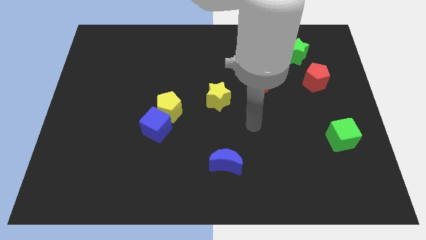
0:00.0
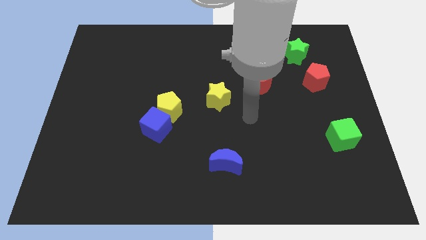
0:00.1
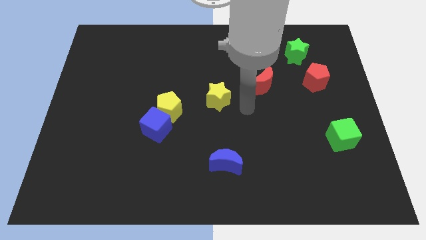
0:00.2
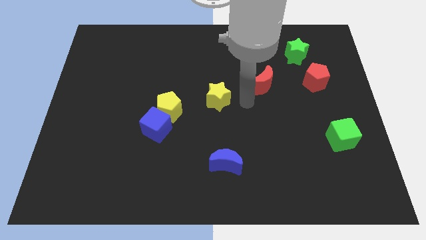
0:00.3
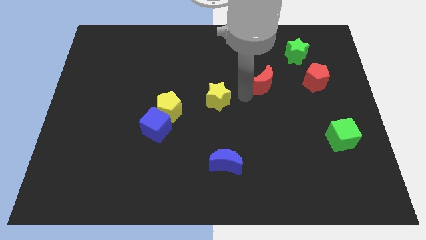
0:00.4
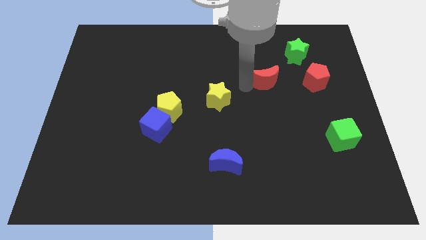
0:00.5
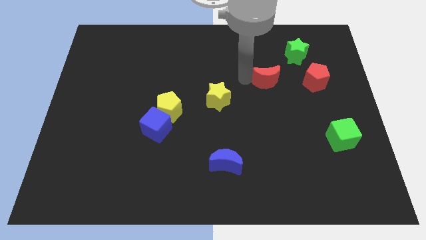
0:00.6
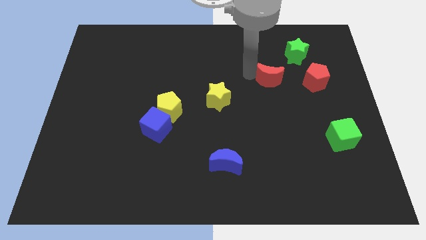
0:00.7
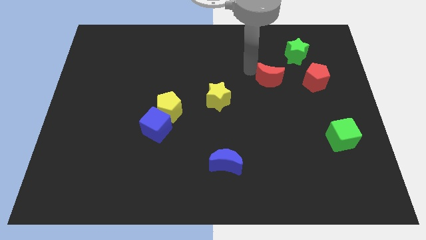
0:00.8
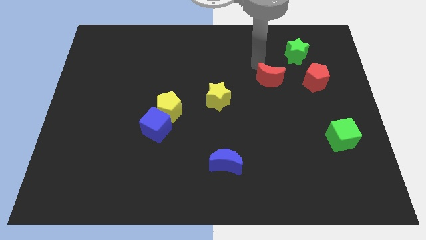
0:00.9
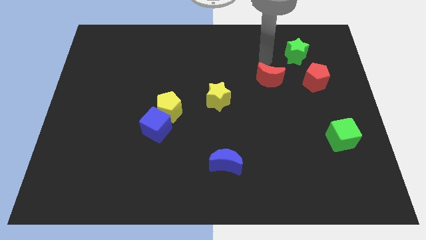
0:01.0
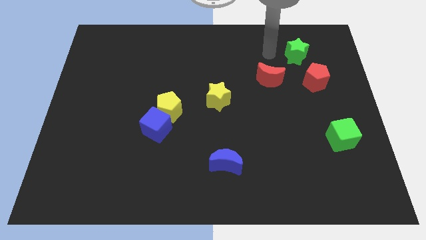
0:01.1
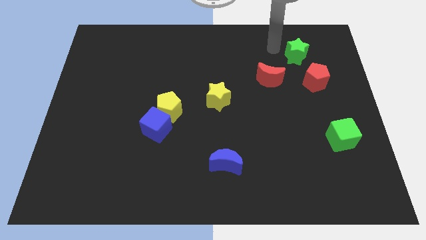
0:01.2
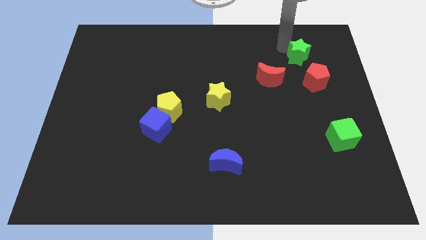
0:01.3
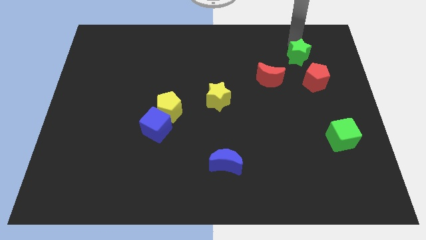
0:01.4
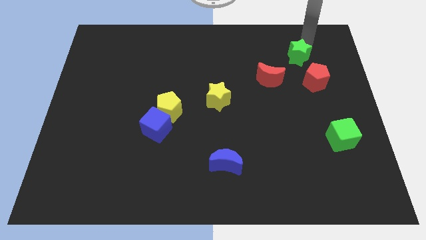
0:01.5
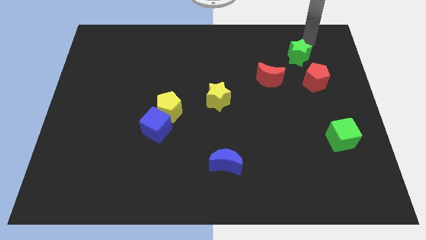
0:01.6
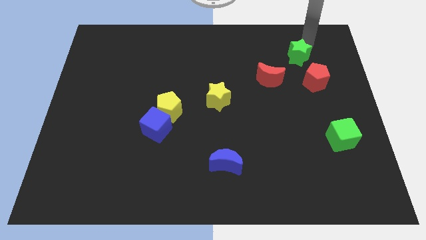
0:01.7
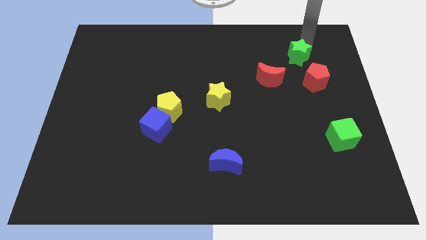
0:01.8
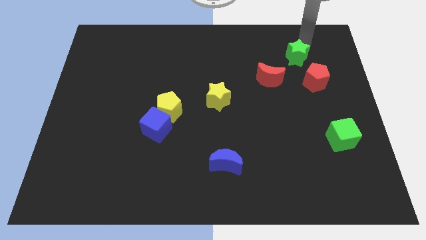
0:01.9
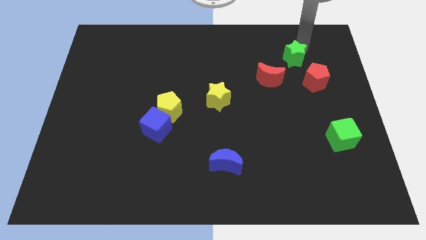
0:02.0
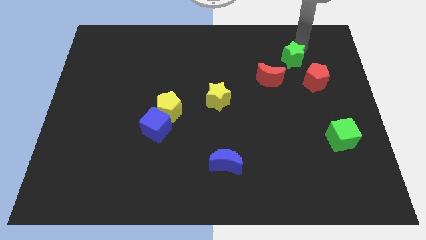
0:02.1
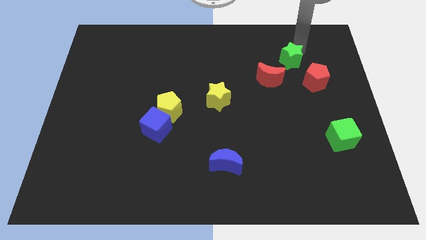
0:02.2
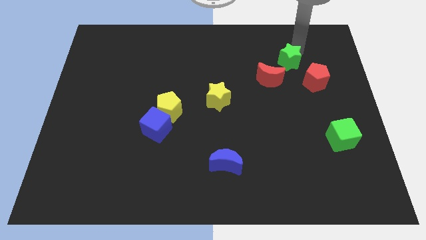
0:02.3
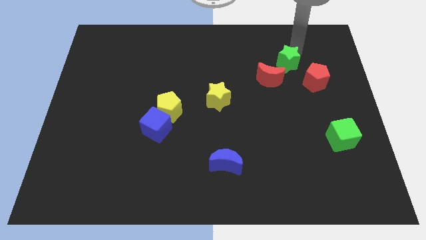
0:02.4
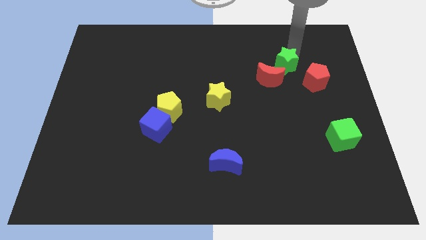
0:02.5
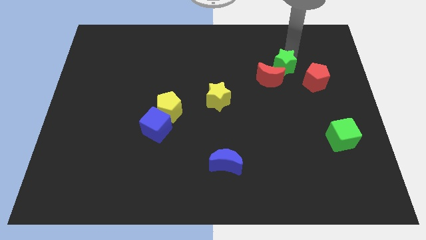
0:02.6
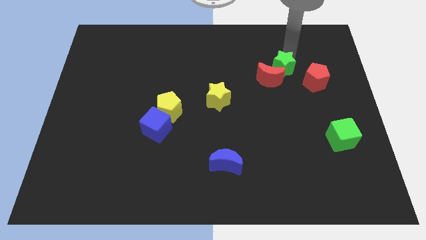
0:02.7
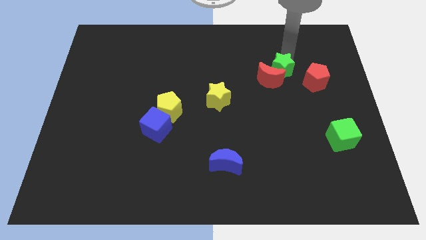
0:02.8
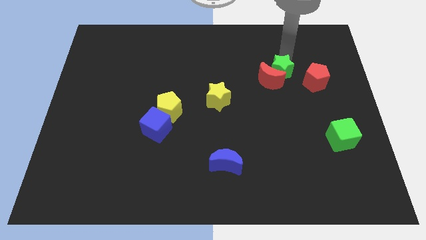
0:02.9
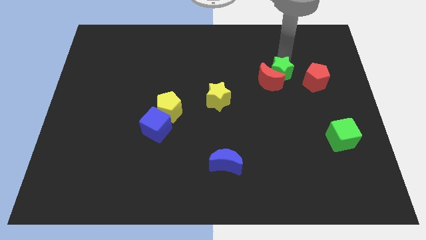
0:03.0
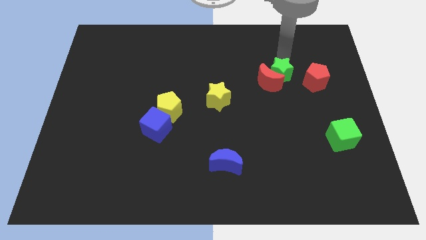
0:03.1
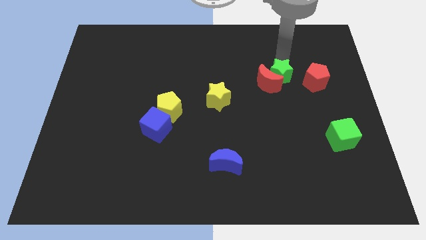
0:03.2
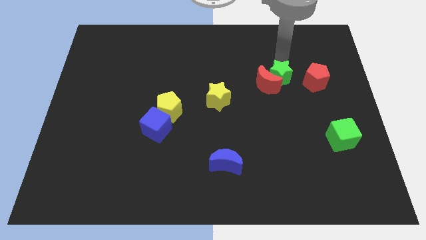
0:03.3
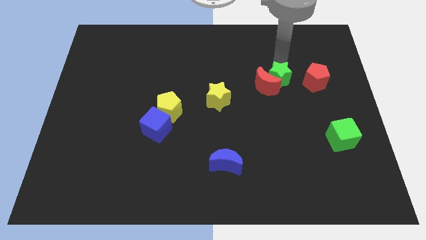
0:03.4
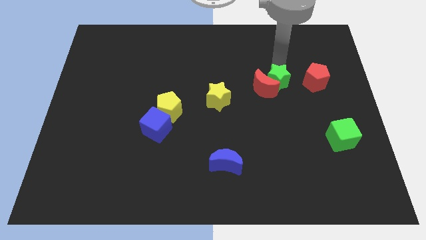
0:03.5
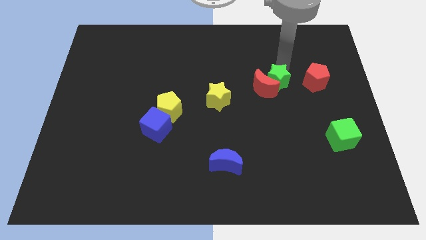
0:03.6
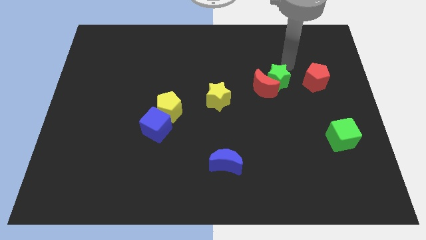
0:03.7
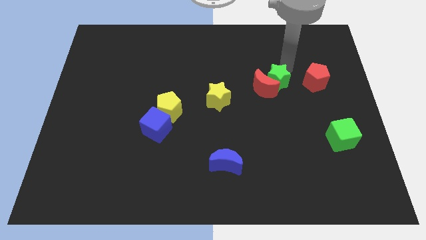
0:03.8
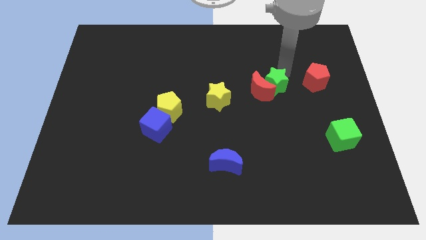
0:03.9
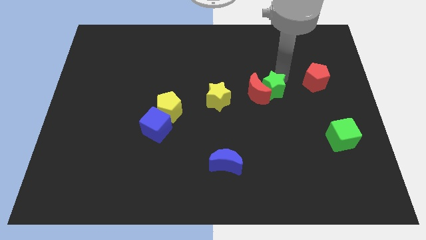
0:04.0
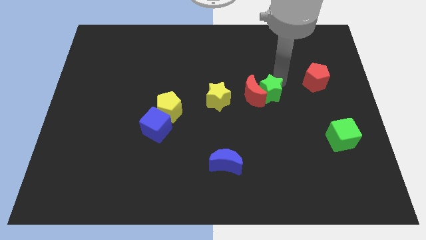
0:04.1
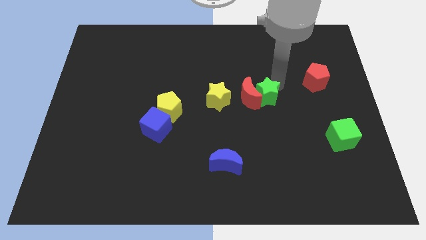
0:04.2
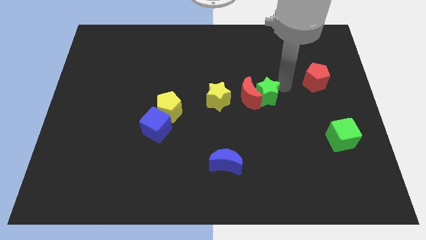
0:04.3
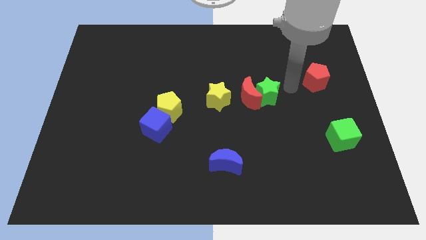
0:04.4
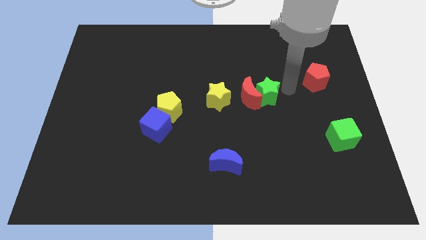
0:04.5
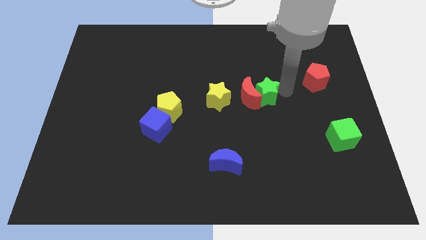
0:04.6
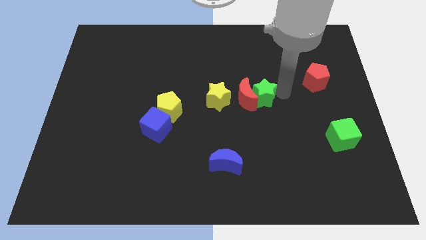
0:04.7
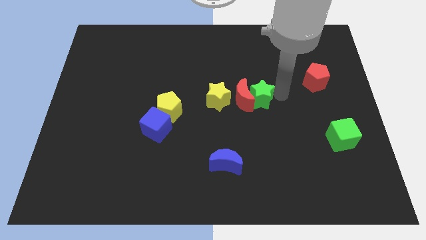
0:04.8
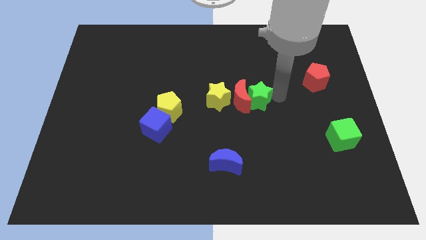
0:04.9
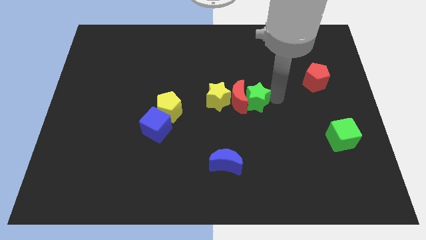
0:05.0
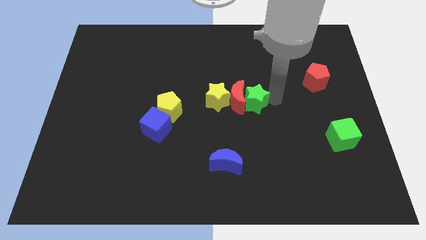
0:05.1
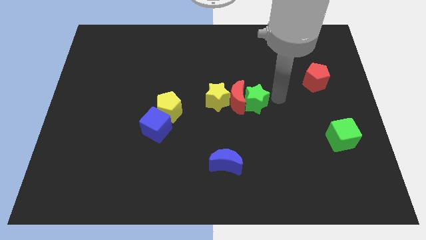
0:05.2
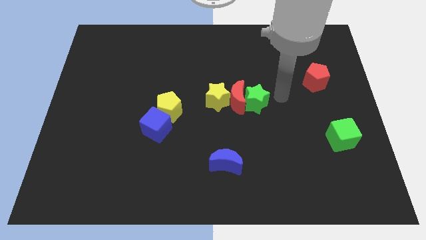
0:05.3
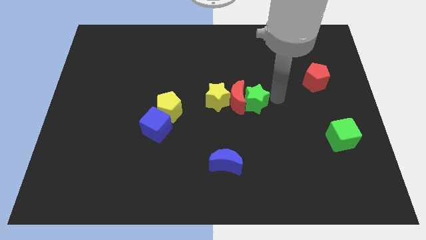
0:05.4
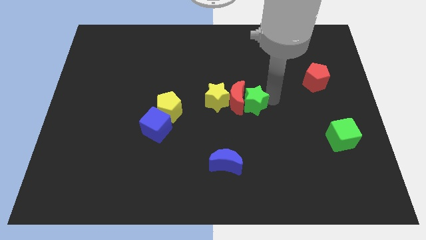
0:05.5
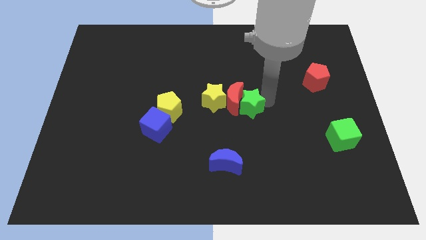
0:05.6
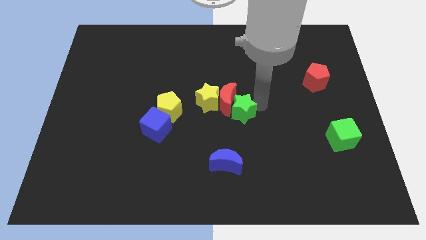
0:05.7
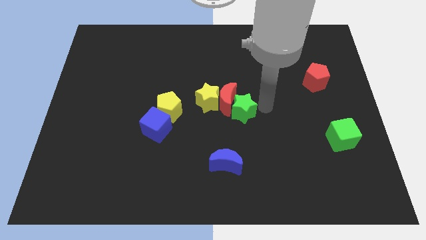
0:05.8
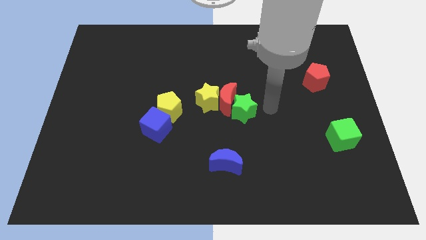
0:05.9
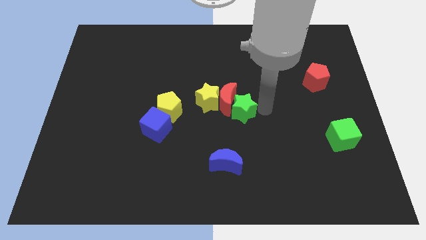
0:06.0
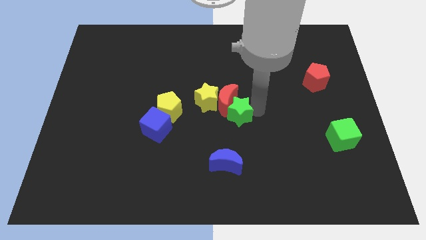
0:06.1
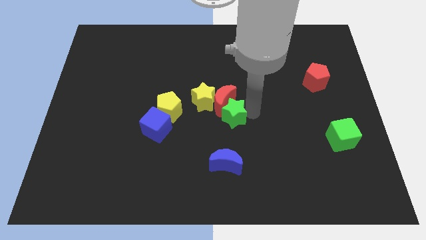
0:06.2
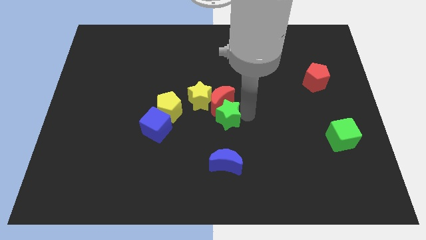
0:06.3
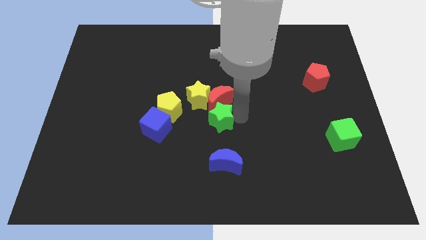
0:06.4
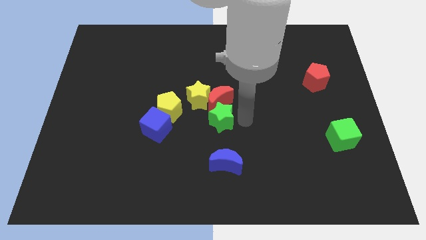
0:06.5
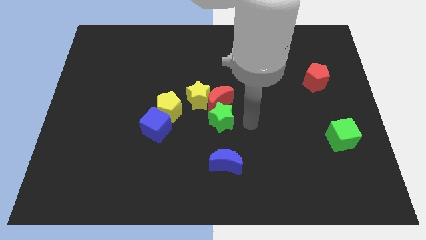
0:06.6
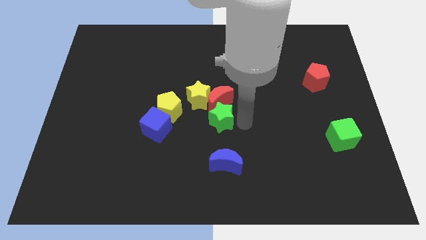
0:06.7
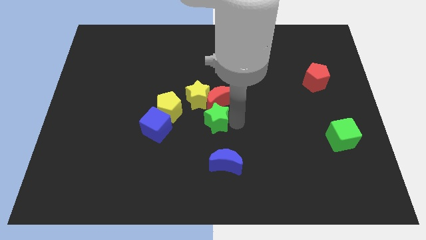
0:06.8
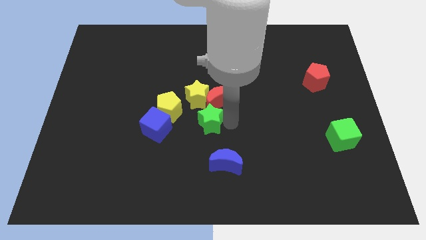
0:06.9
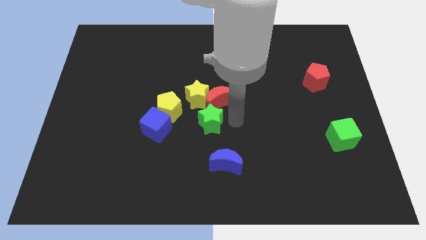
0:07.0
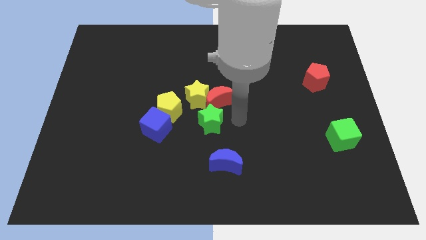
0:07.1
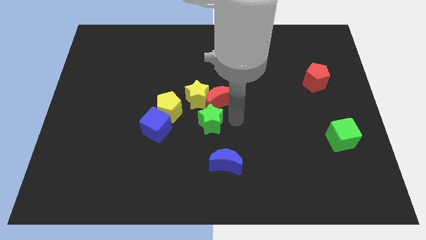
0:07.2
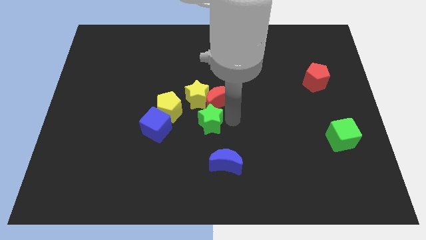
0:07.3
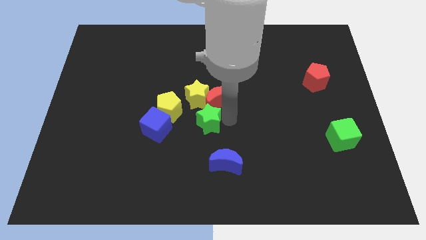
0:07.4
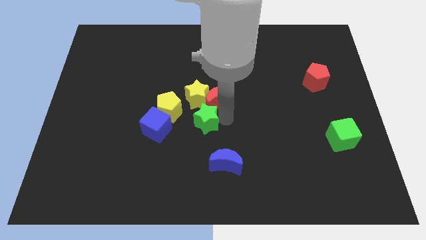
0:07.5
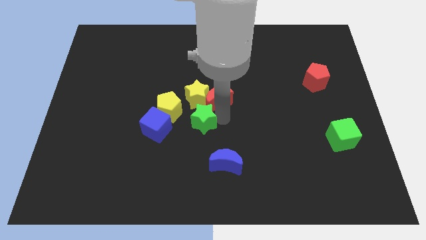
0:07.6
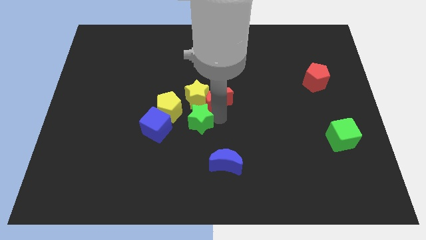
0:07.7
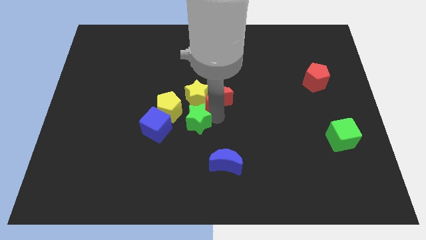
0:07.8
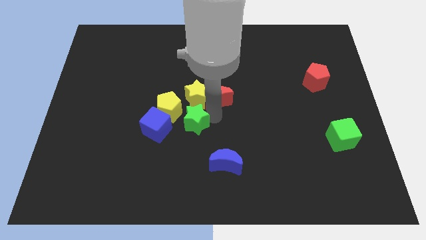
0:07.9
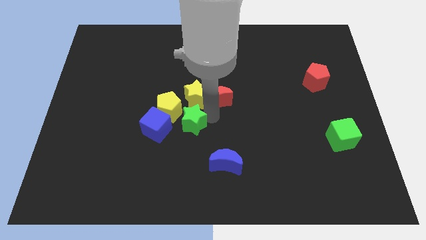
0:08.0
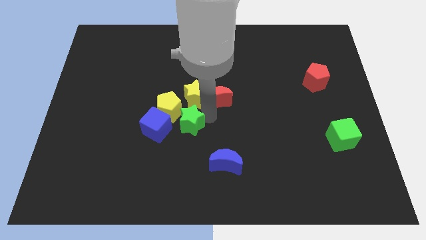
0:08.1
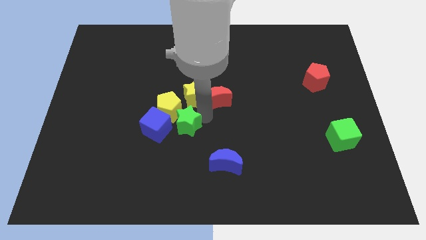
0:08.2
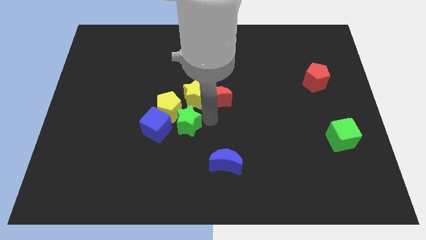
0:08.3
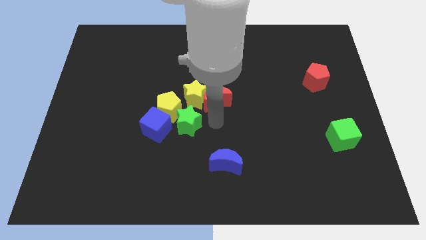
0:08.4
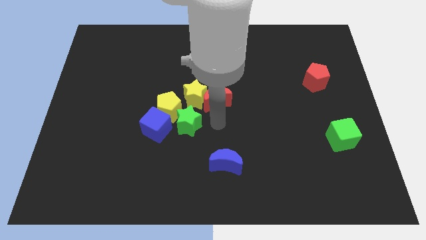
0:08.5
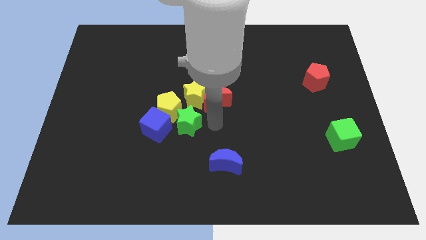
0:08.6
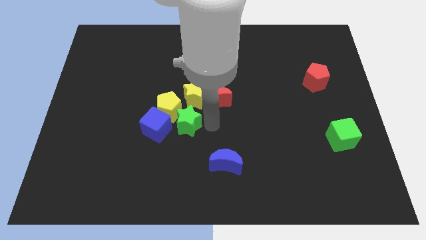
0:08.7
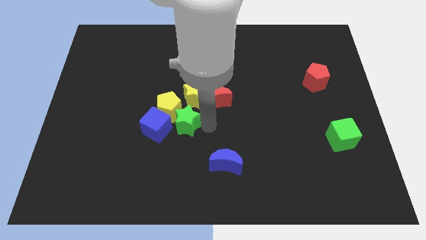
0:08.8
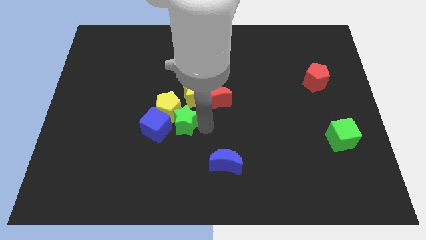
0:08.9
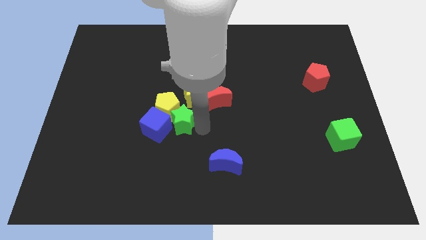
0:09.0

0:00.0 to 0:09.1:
move the green star to the blue cube
